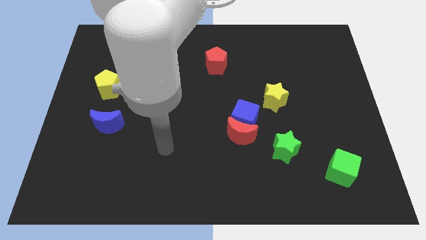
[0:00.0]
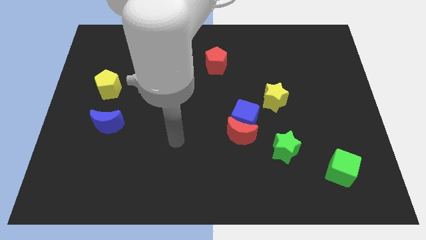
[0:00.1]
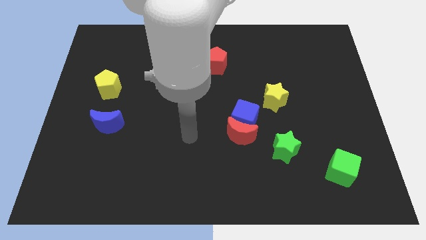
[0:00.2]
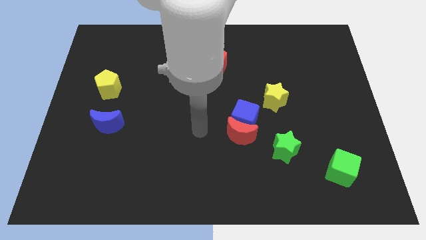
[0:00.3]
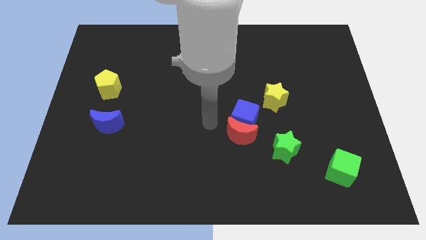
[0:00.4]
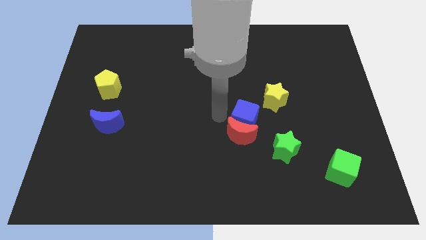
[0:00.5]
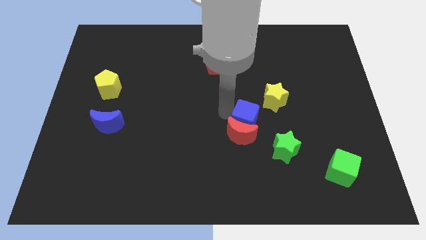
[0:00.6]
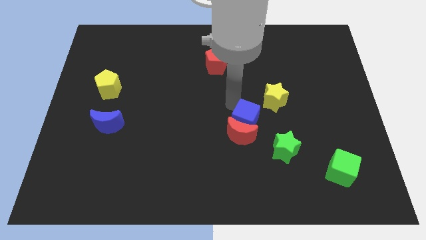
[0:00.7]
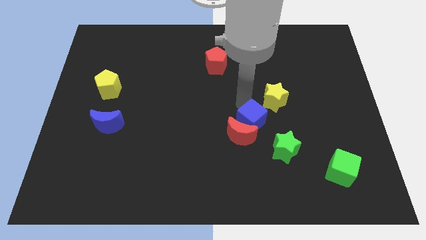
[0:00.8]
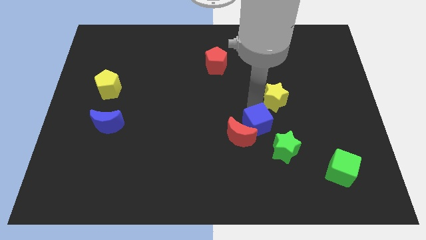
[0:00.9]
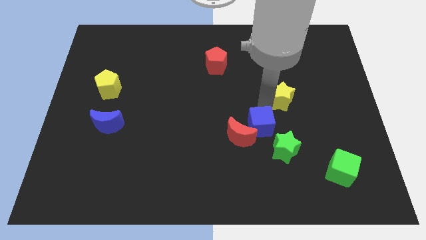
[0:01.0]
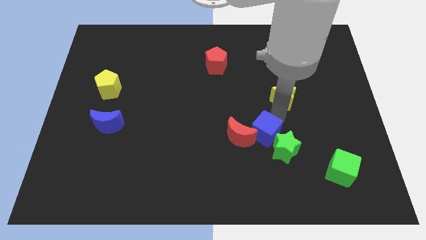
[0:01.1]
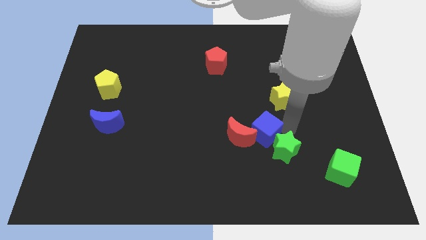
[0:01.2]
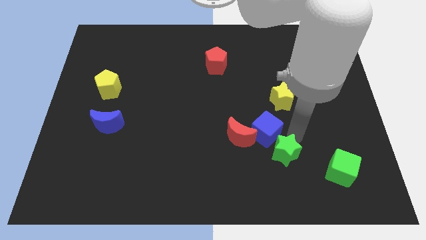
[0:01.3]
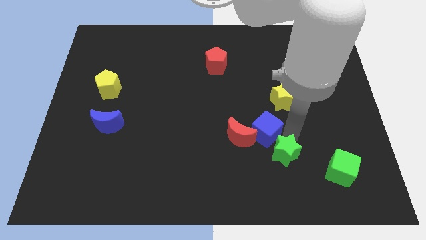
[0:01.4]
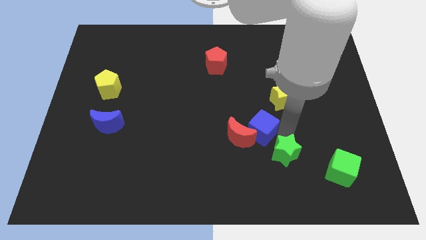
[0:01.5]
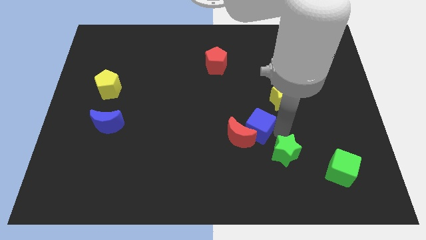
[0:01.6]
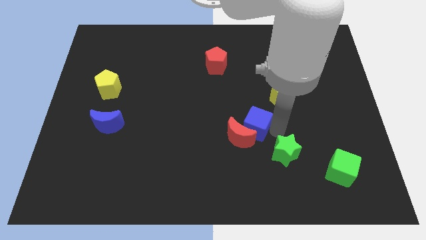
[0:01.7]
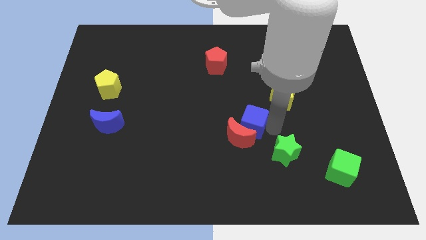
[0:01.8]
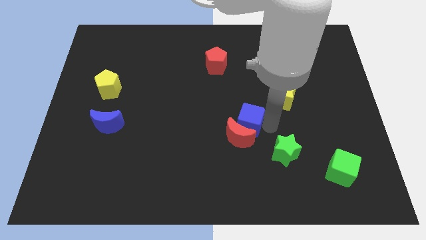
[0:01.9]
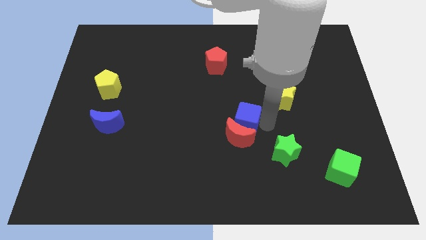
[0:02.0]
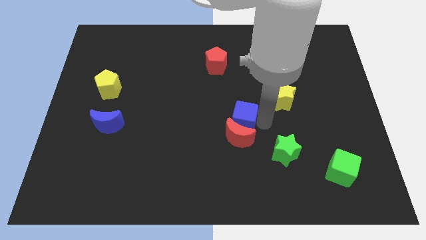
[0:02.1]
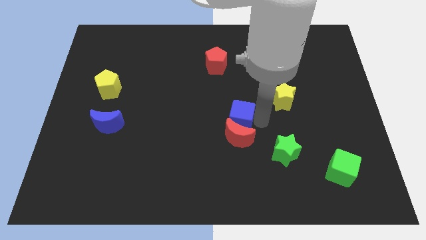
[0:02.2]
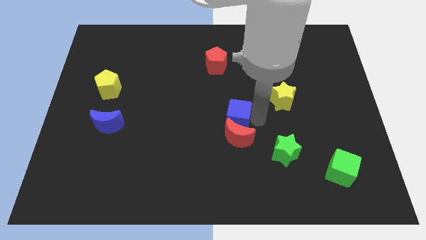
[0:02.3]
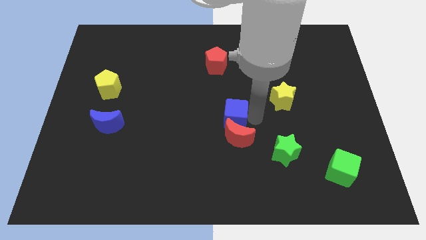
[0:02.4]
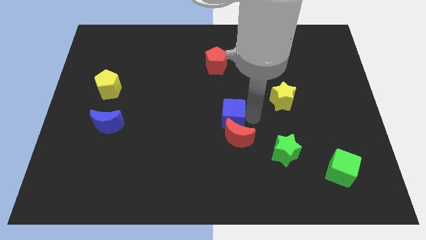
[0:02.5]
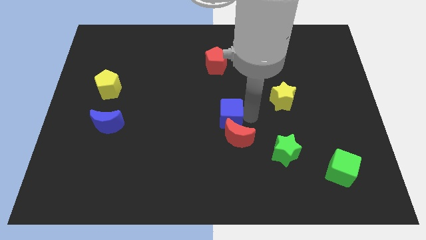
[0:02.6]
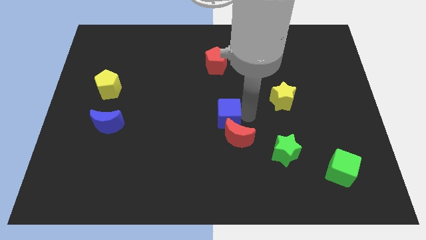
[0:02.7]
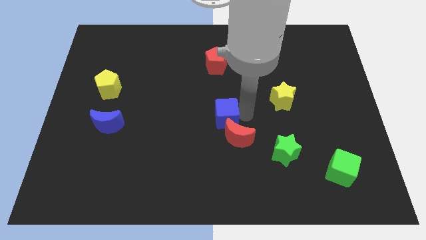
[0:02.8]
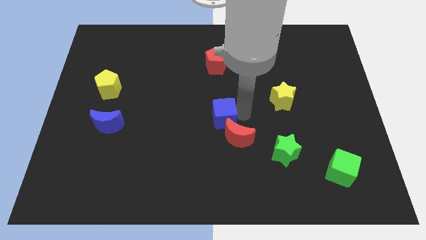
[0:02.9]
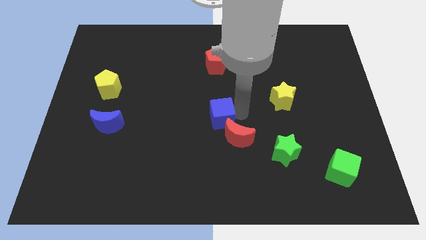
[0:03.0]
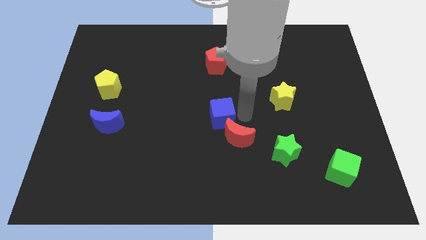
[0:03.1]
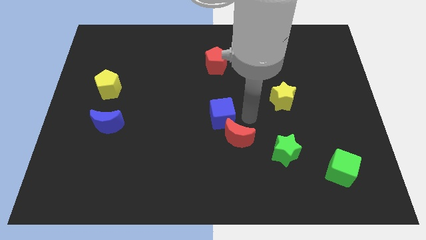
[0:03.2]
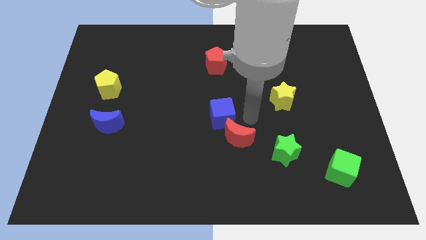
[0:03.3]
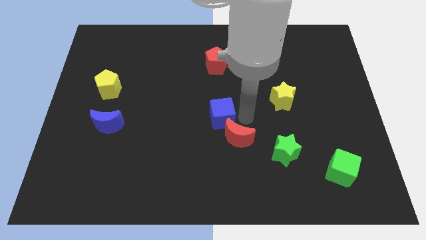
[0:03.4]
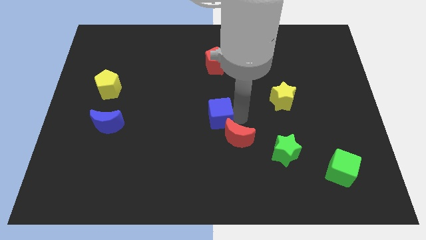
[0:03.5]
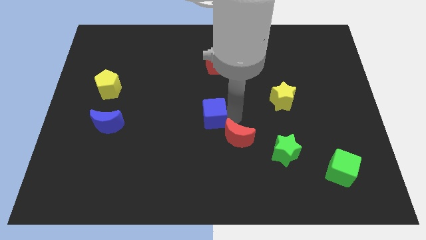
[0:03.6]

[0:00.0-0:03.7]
move the blue cube away from the red moon and yellow star

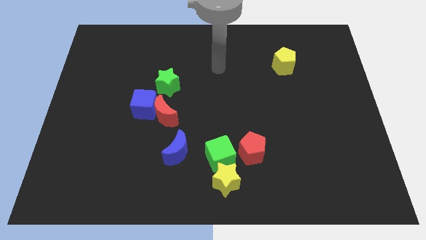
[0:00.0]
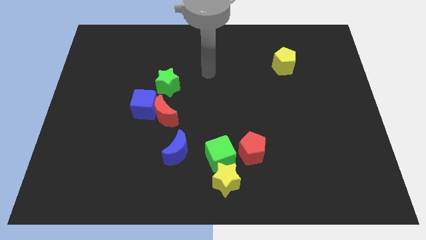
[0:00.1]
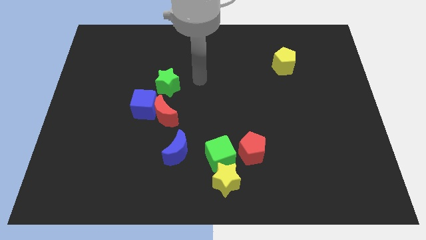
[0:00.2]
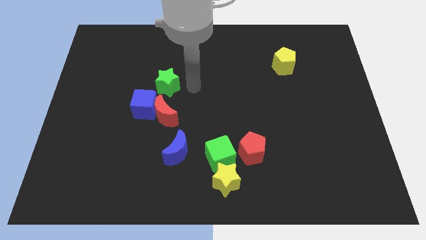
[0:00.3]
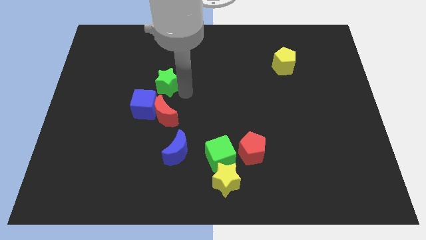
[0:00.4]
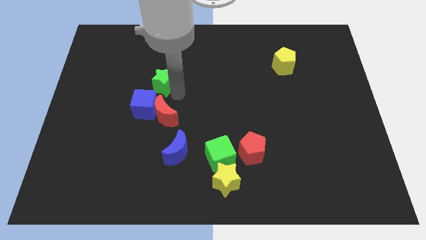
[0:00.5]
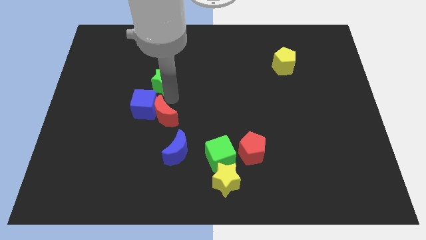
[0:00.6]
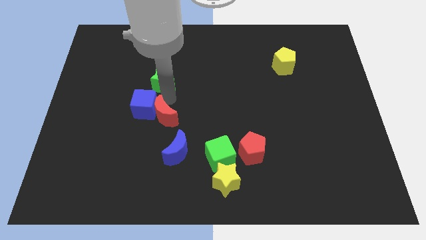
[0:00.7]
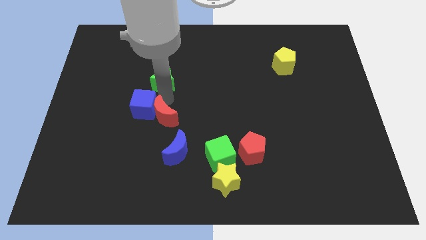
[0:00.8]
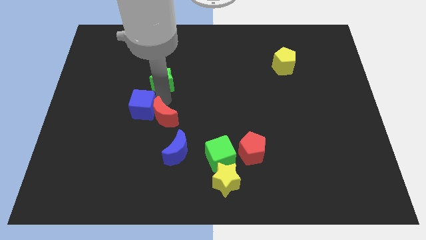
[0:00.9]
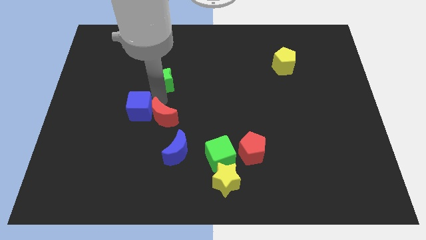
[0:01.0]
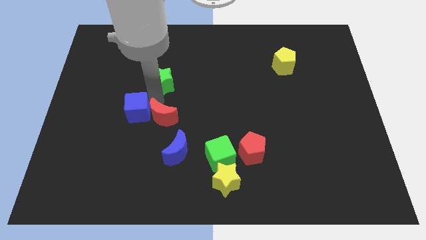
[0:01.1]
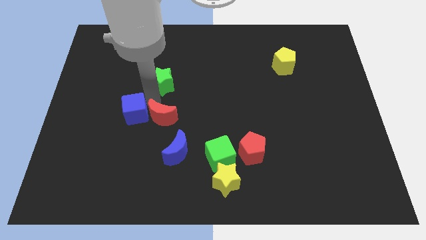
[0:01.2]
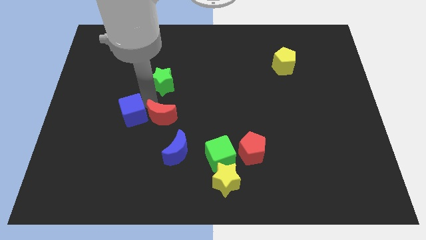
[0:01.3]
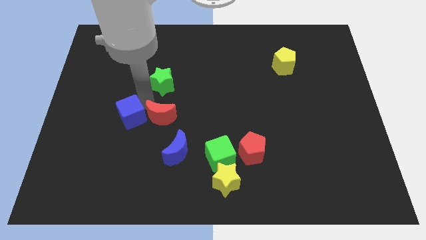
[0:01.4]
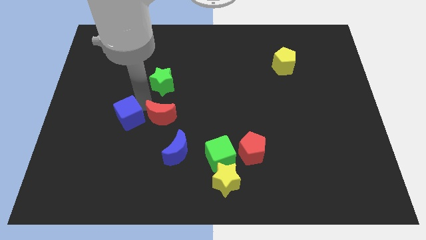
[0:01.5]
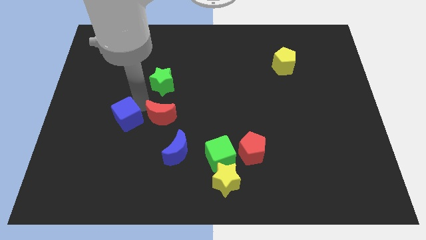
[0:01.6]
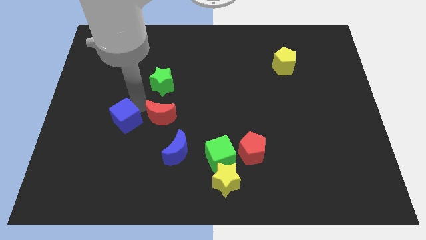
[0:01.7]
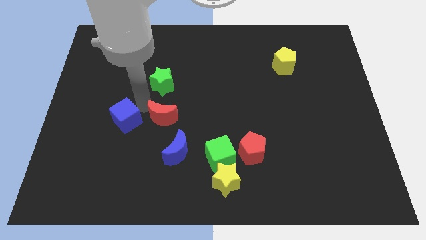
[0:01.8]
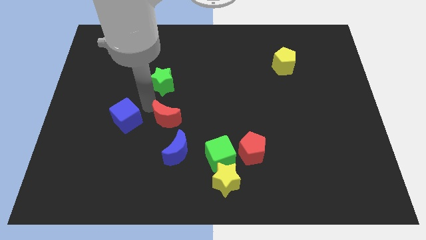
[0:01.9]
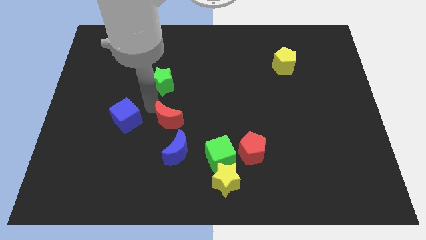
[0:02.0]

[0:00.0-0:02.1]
pull the blue cube apart from the red moon and green star

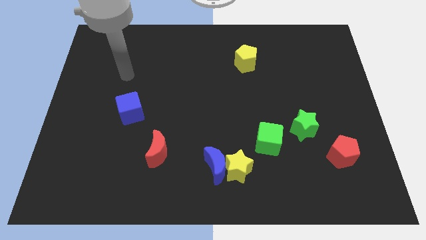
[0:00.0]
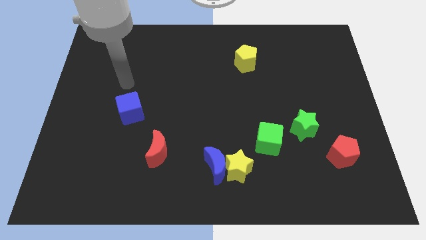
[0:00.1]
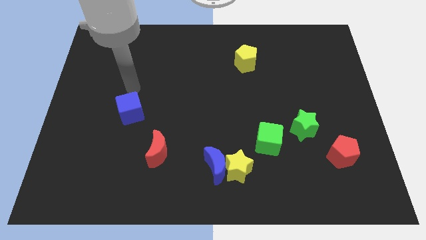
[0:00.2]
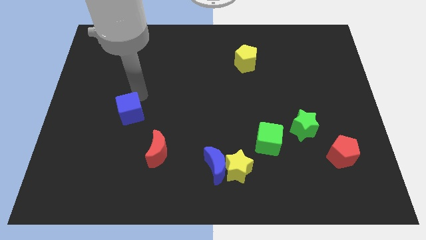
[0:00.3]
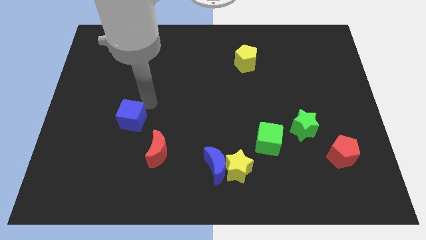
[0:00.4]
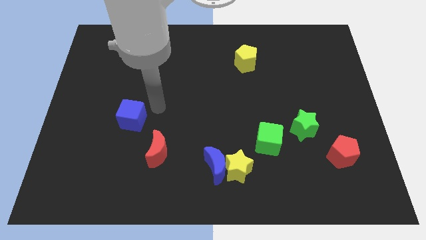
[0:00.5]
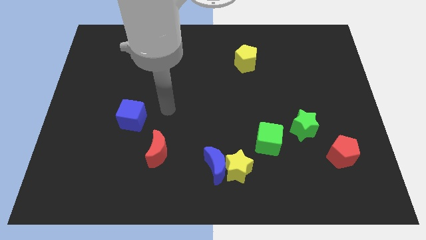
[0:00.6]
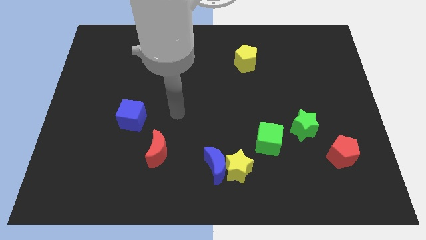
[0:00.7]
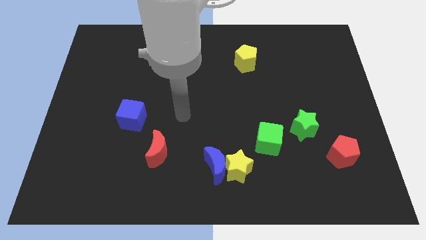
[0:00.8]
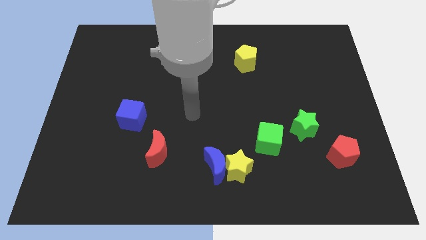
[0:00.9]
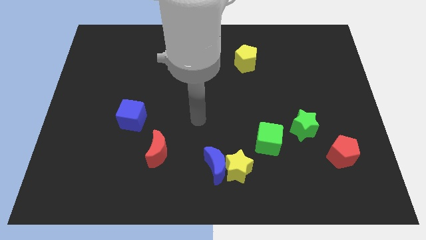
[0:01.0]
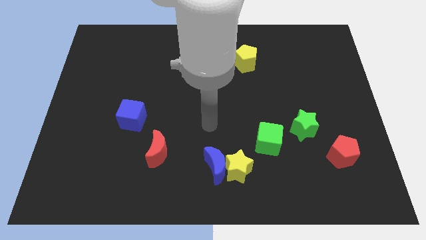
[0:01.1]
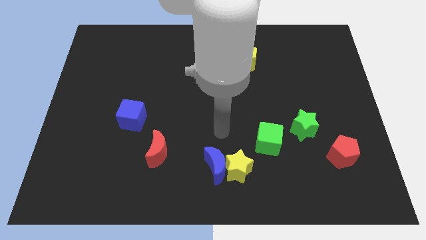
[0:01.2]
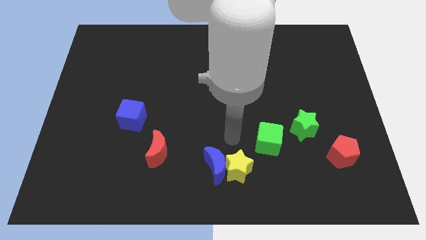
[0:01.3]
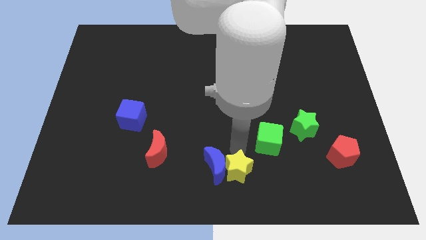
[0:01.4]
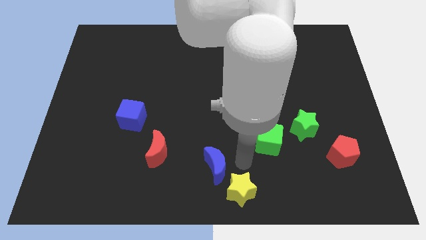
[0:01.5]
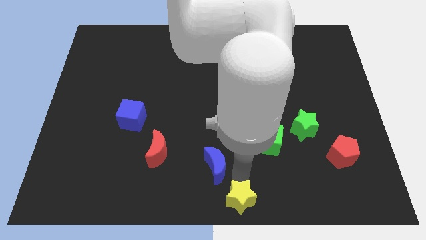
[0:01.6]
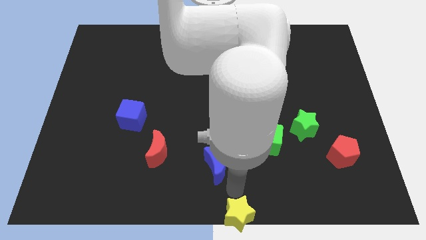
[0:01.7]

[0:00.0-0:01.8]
separate the blue moon from the yellow star

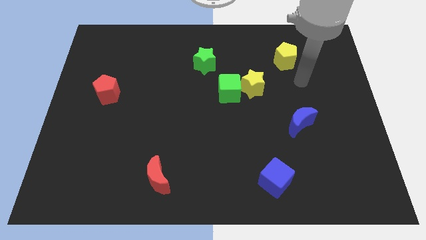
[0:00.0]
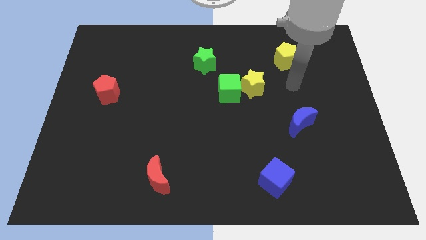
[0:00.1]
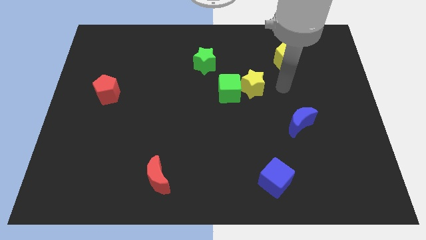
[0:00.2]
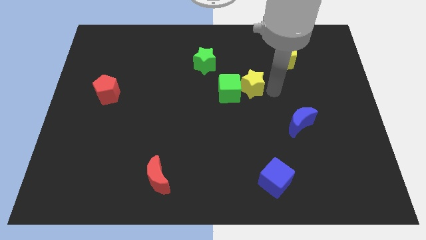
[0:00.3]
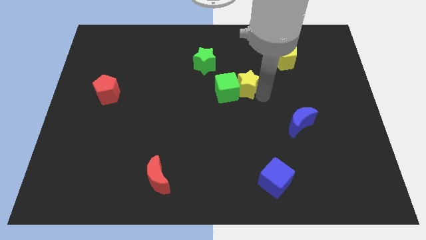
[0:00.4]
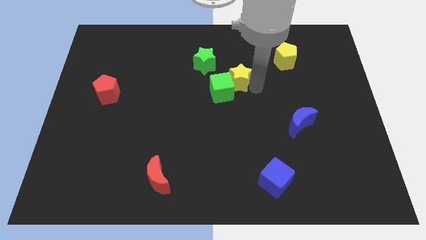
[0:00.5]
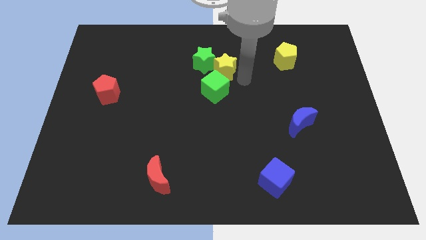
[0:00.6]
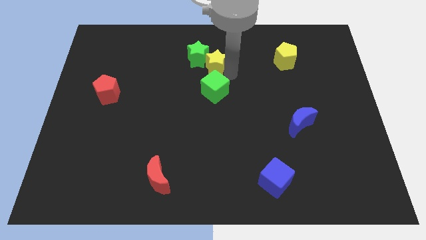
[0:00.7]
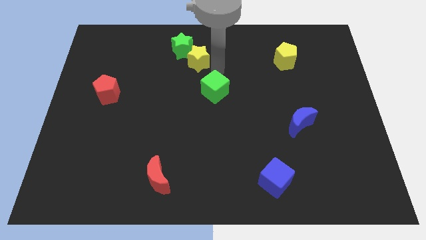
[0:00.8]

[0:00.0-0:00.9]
separate the green cube from the yellow star

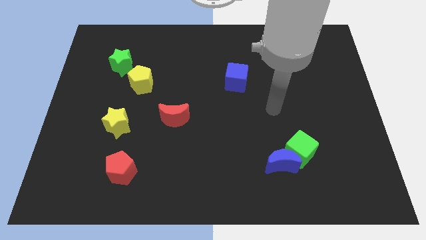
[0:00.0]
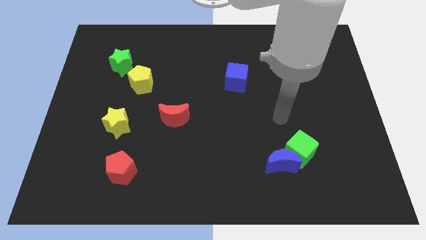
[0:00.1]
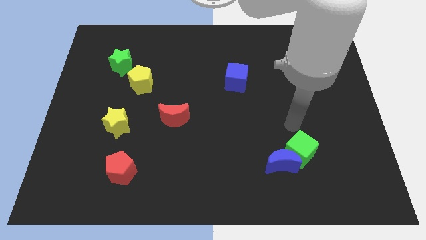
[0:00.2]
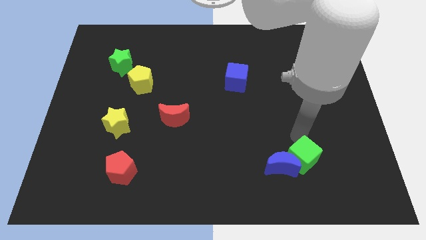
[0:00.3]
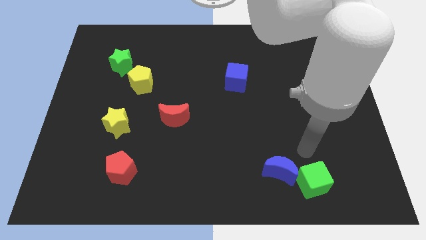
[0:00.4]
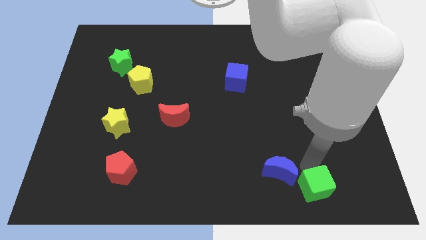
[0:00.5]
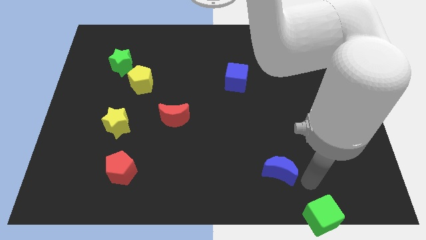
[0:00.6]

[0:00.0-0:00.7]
move the blue moon away from the green cube
